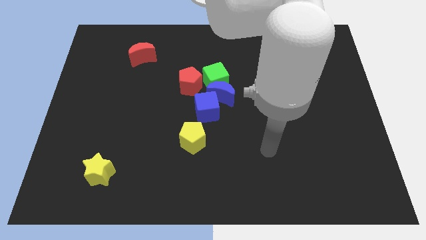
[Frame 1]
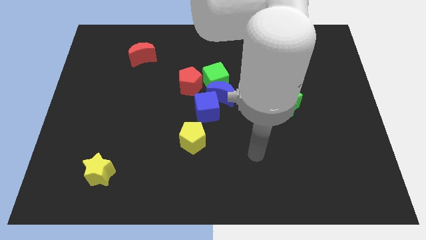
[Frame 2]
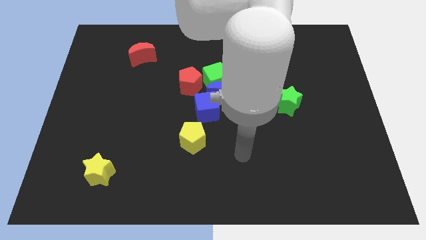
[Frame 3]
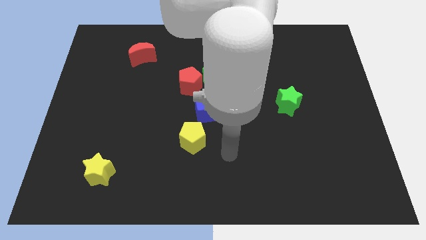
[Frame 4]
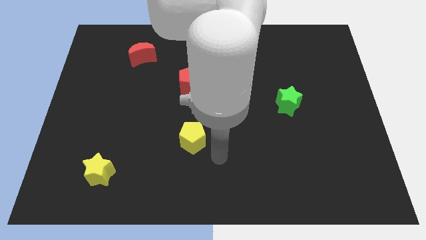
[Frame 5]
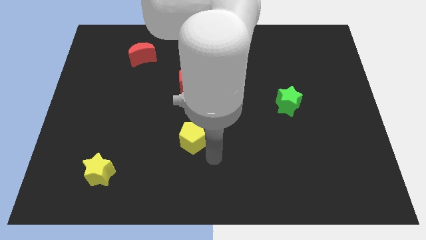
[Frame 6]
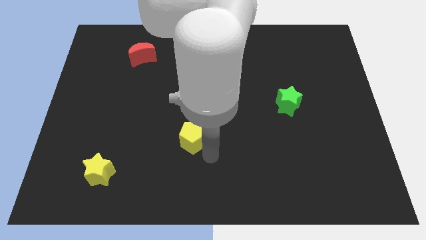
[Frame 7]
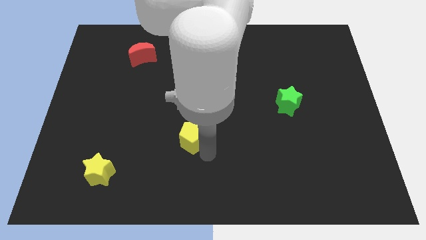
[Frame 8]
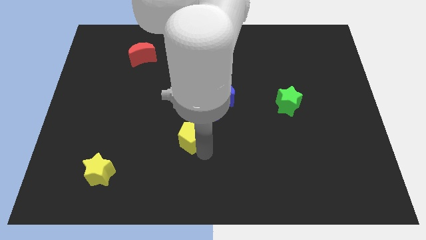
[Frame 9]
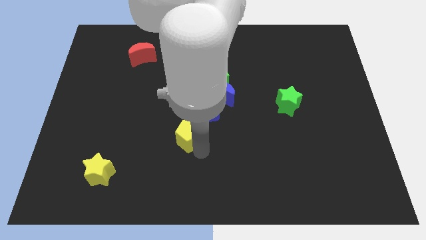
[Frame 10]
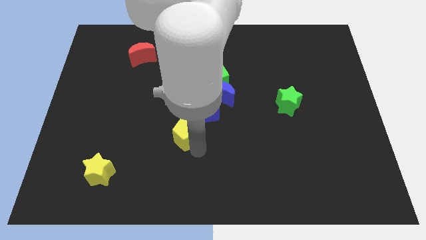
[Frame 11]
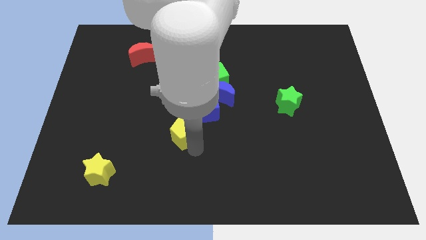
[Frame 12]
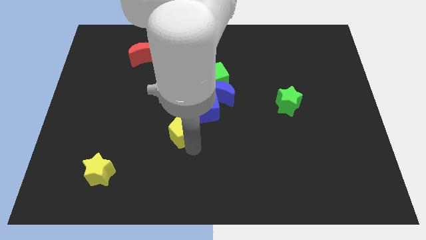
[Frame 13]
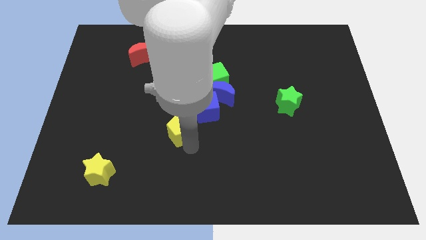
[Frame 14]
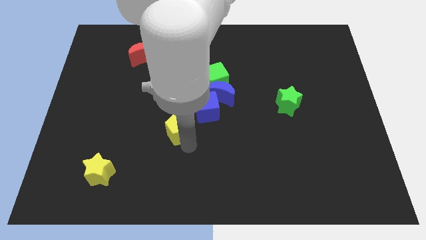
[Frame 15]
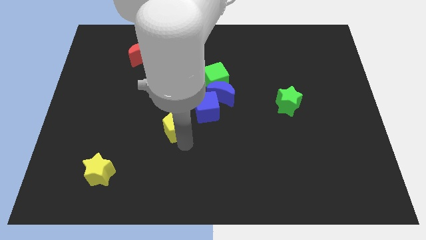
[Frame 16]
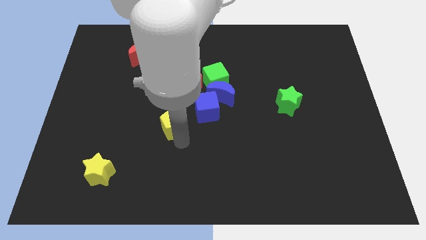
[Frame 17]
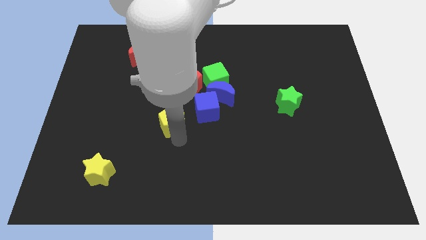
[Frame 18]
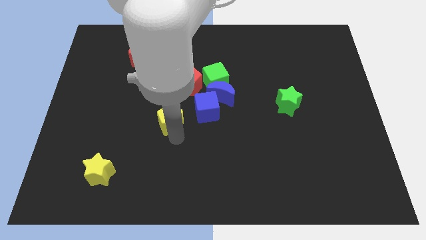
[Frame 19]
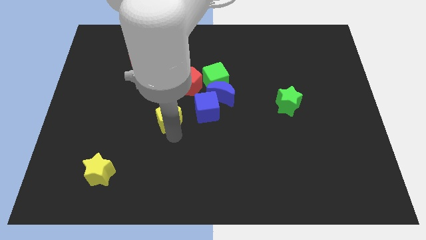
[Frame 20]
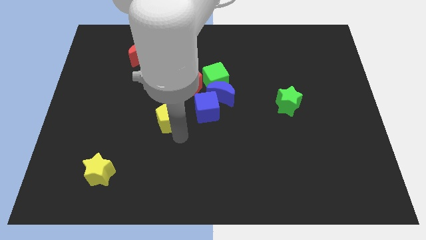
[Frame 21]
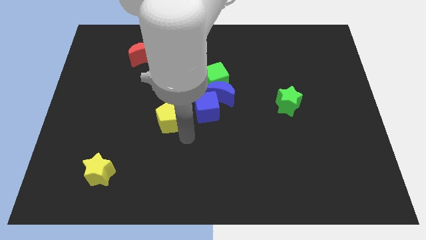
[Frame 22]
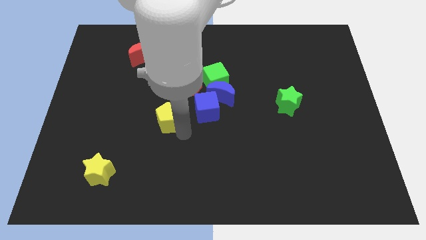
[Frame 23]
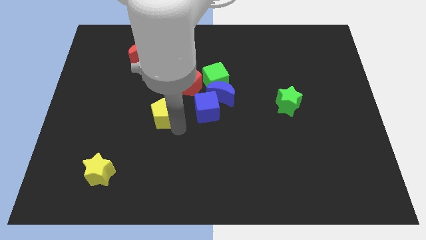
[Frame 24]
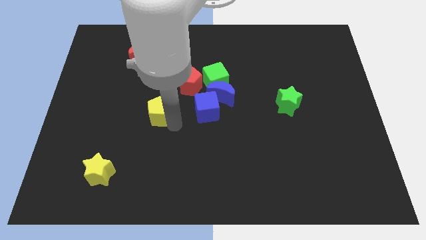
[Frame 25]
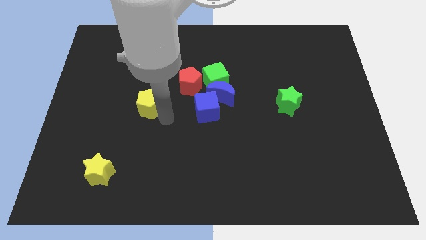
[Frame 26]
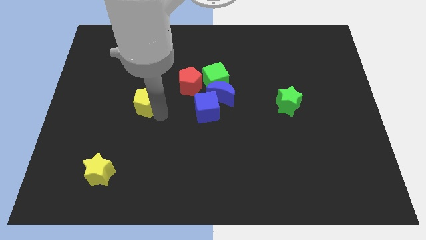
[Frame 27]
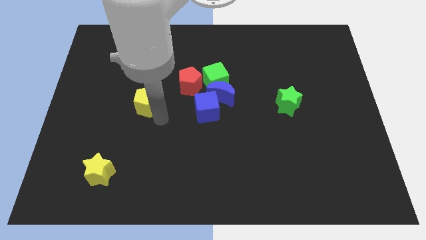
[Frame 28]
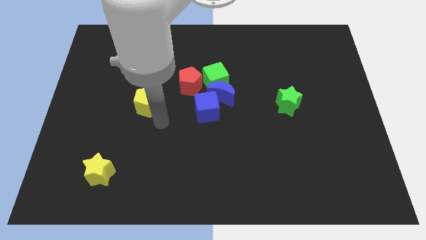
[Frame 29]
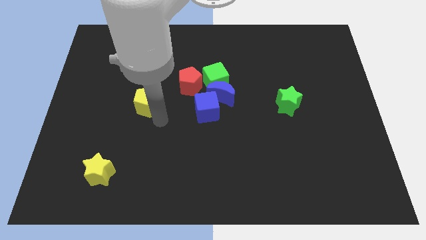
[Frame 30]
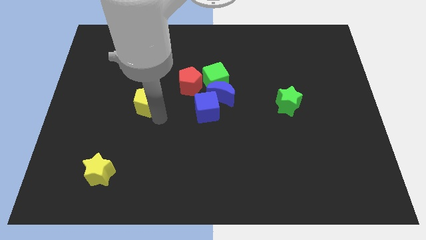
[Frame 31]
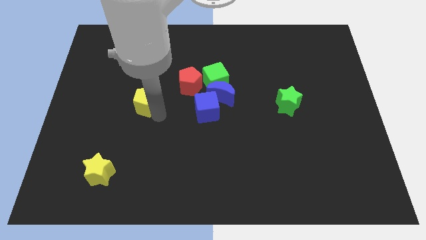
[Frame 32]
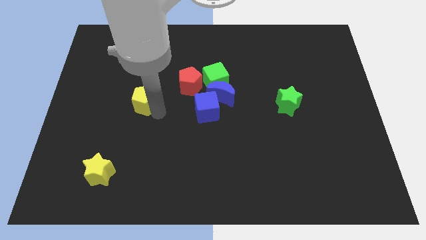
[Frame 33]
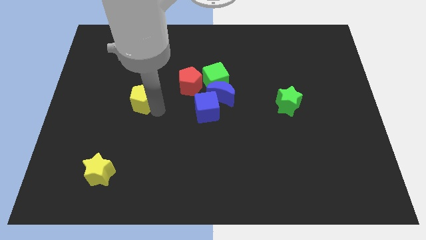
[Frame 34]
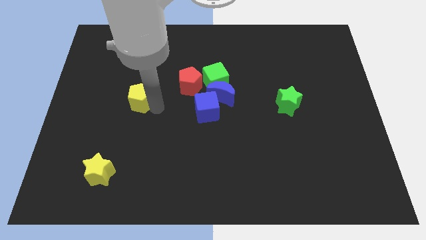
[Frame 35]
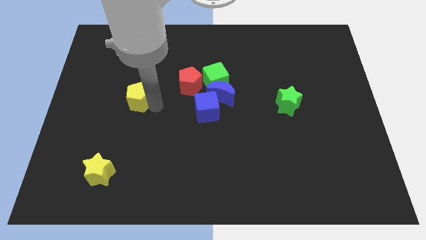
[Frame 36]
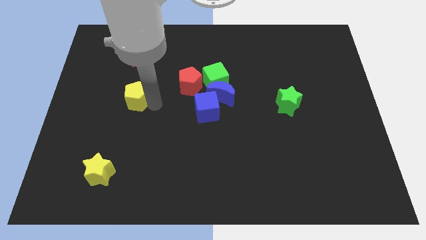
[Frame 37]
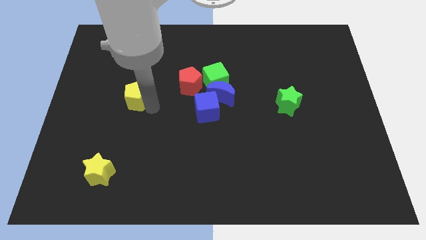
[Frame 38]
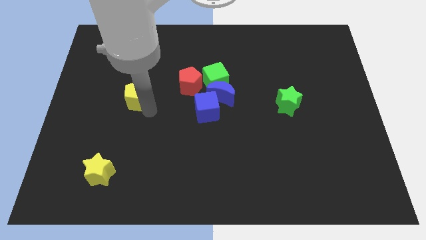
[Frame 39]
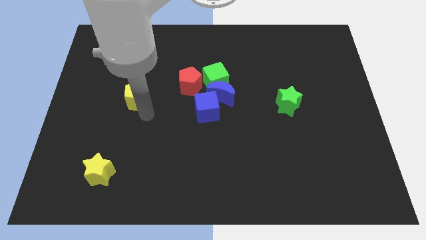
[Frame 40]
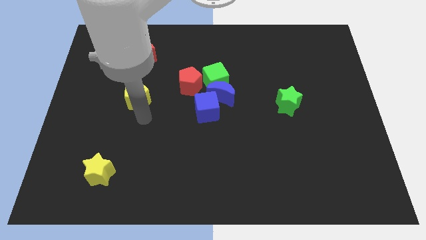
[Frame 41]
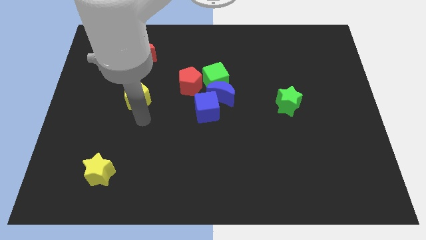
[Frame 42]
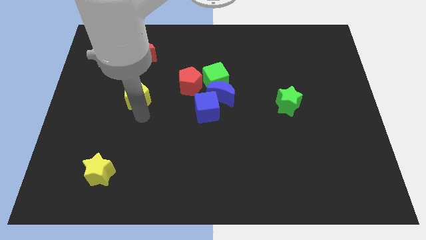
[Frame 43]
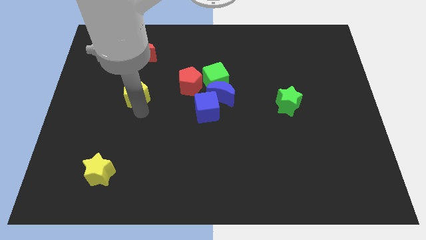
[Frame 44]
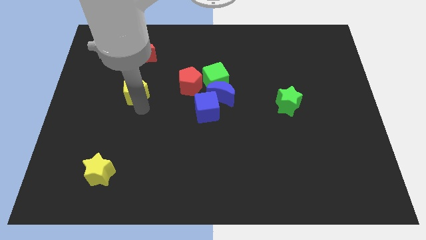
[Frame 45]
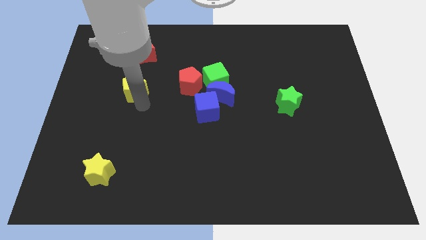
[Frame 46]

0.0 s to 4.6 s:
move the yellow pentagon diagonally up and left

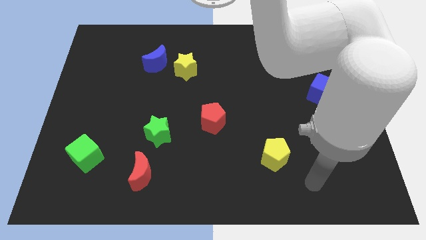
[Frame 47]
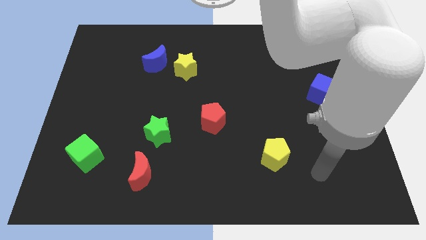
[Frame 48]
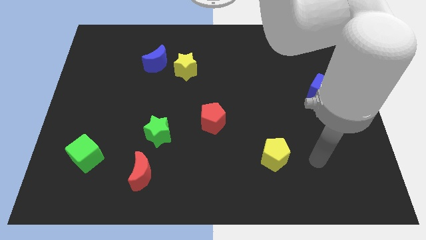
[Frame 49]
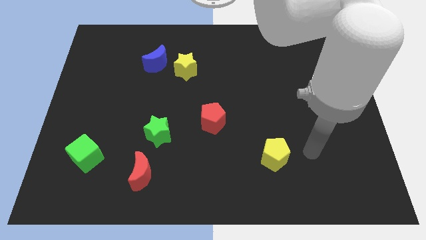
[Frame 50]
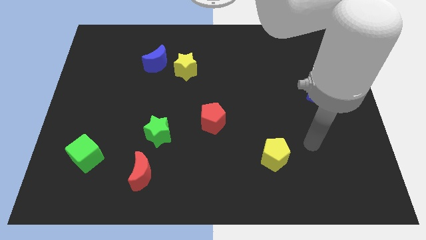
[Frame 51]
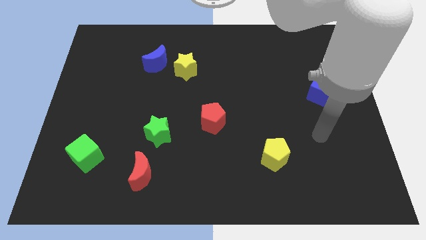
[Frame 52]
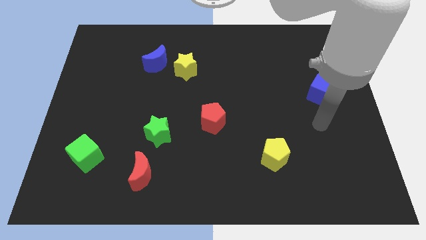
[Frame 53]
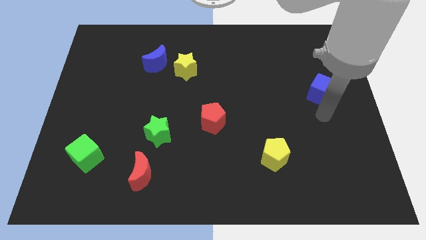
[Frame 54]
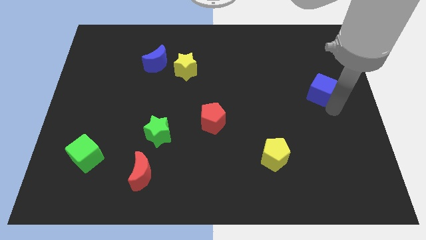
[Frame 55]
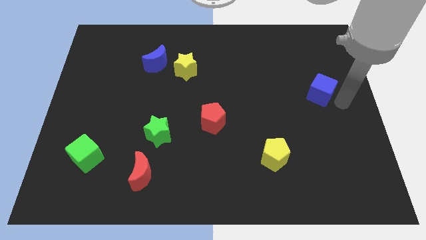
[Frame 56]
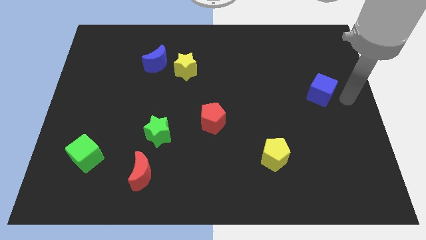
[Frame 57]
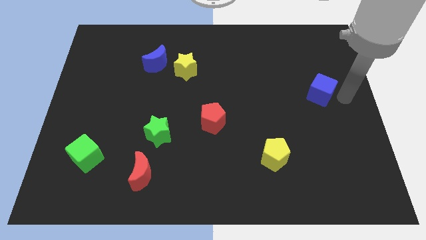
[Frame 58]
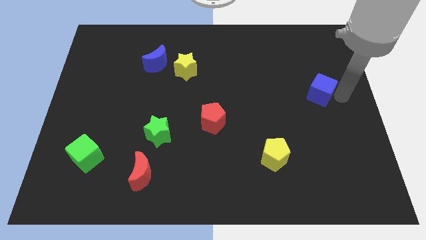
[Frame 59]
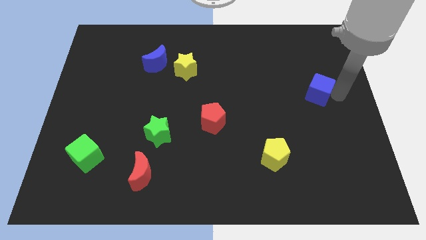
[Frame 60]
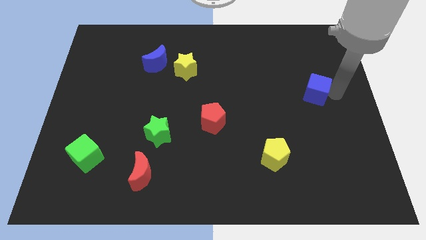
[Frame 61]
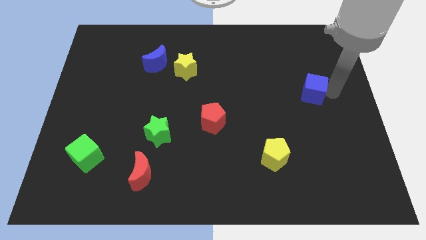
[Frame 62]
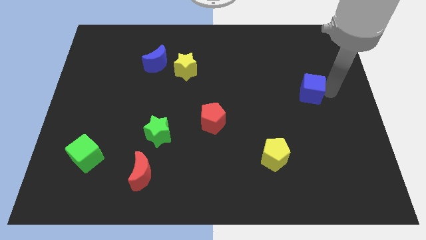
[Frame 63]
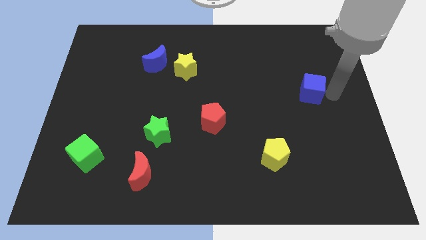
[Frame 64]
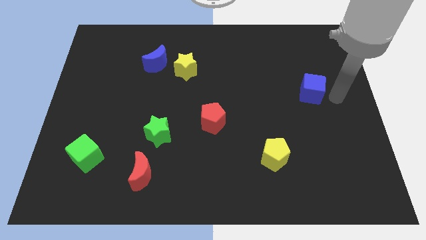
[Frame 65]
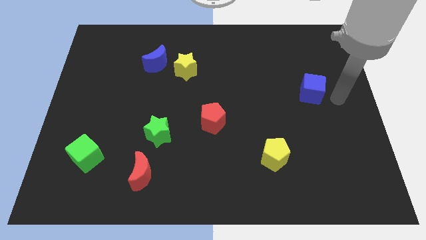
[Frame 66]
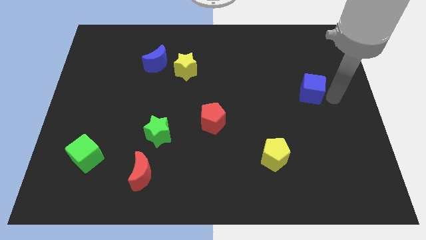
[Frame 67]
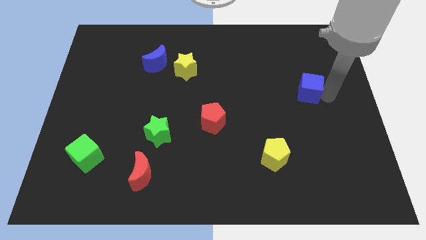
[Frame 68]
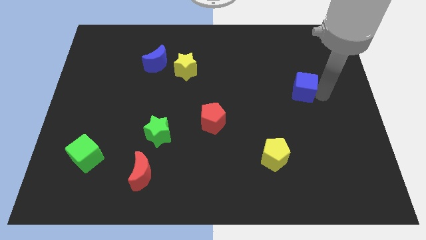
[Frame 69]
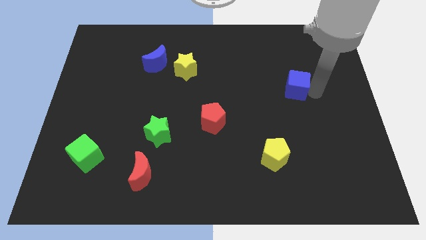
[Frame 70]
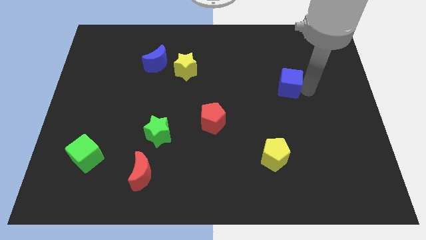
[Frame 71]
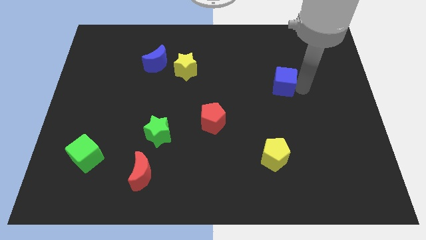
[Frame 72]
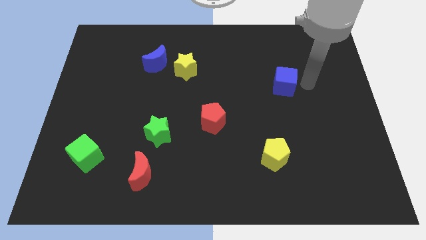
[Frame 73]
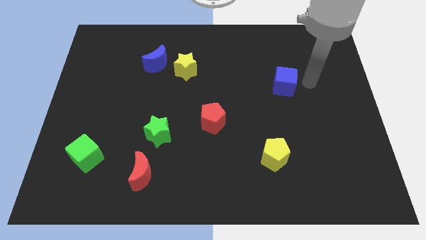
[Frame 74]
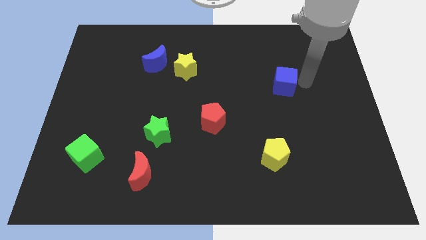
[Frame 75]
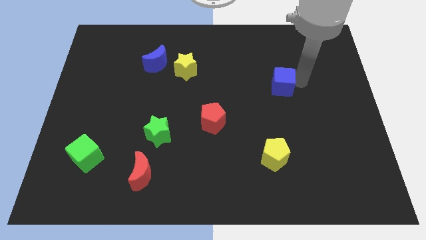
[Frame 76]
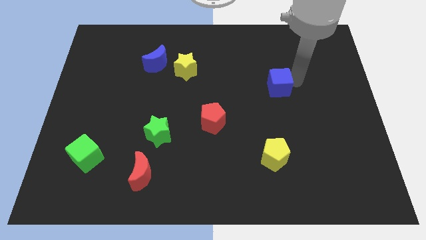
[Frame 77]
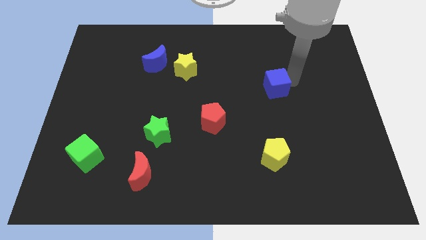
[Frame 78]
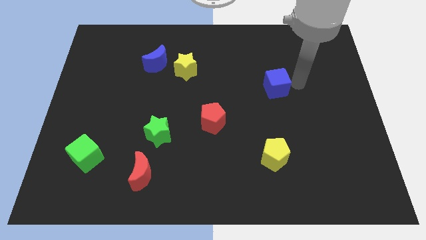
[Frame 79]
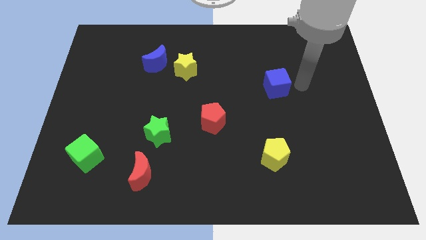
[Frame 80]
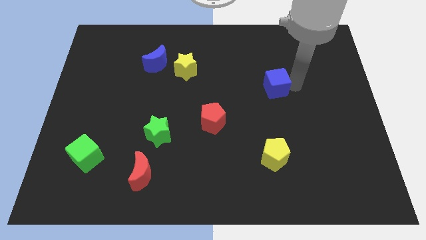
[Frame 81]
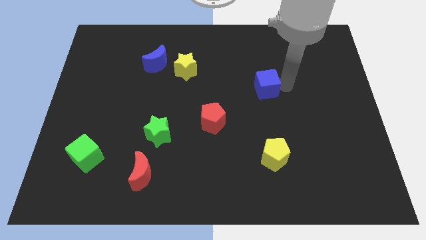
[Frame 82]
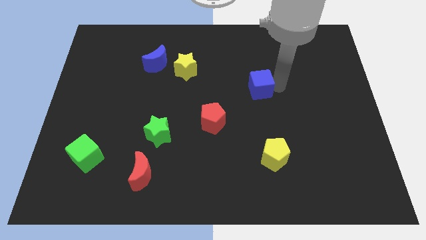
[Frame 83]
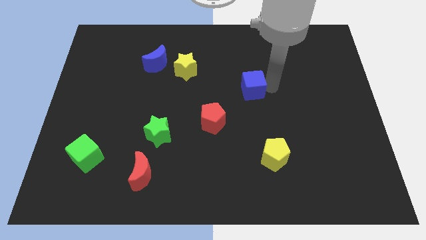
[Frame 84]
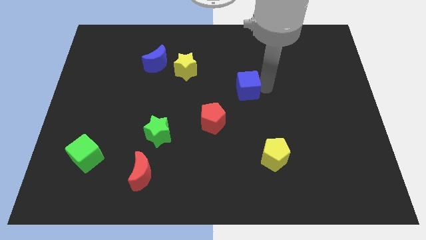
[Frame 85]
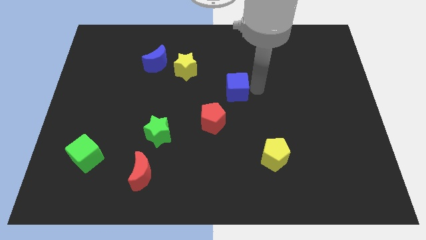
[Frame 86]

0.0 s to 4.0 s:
push the blue cube to the left
